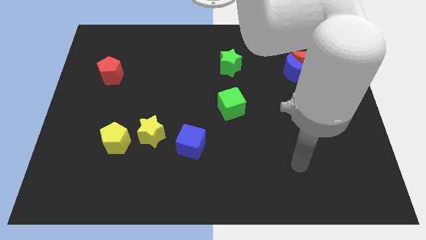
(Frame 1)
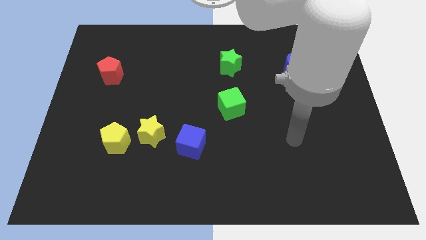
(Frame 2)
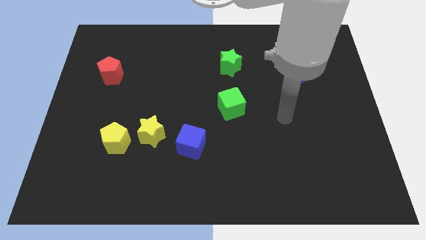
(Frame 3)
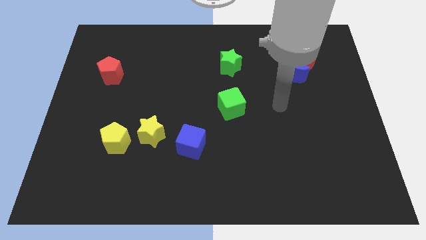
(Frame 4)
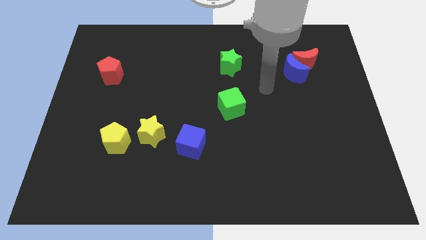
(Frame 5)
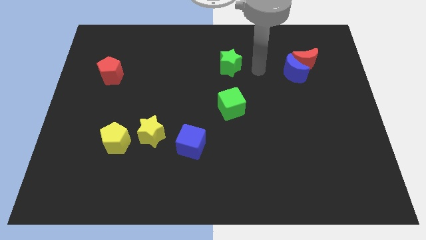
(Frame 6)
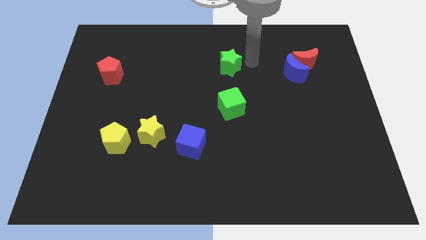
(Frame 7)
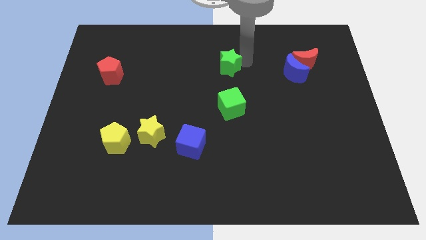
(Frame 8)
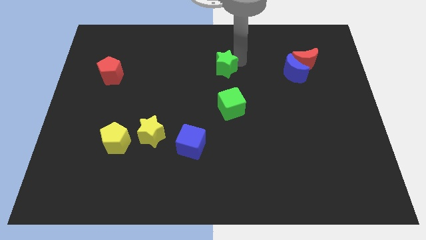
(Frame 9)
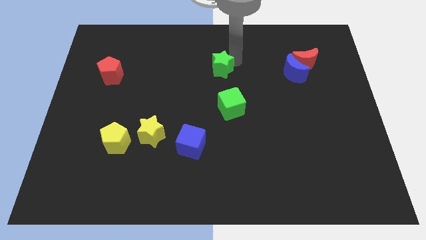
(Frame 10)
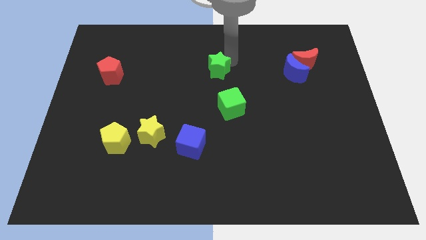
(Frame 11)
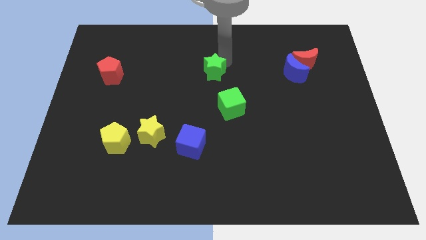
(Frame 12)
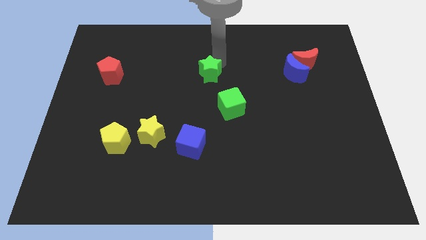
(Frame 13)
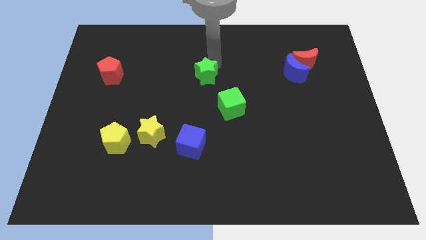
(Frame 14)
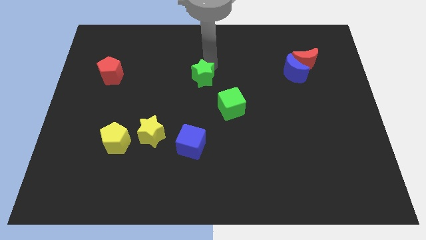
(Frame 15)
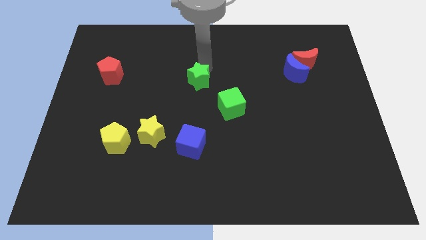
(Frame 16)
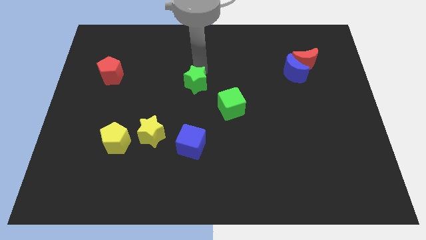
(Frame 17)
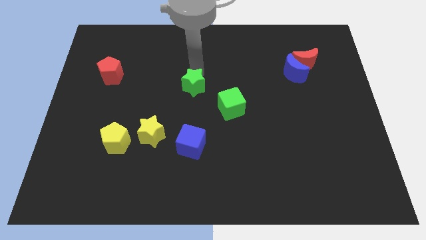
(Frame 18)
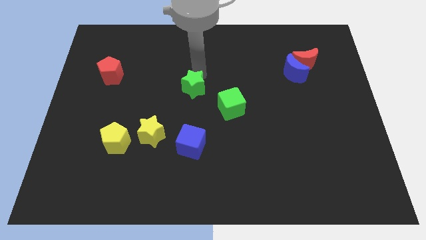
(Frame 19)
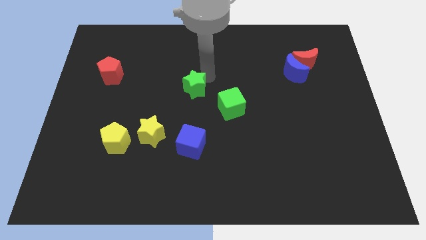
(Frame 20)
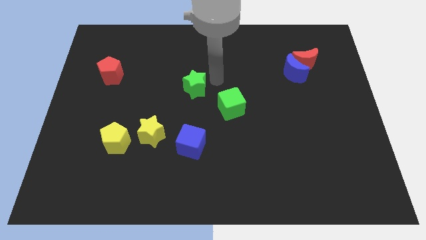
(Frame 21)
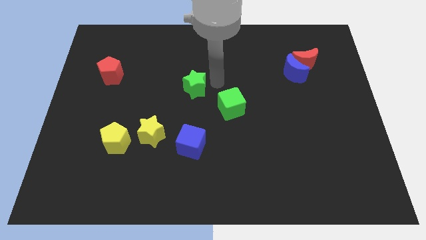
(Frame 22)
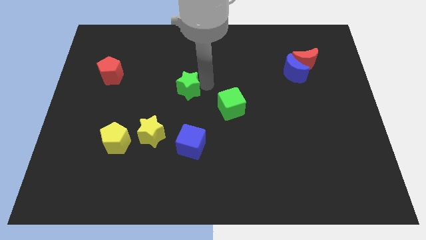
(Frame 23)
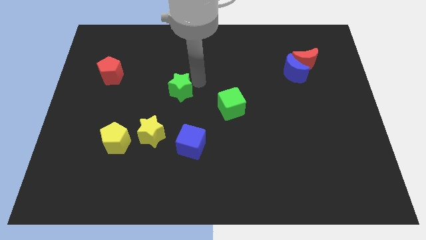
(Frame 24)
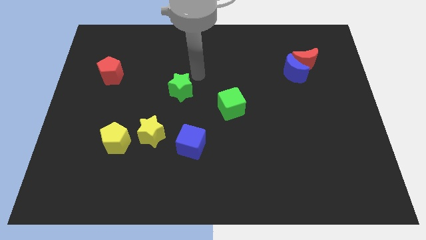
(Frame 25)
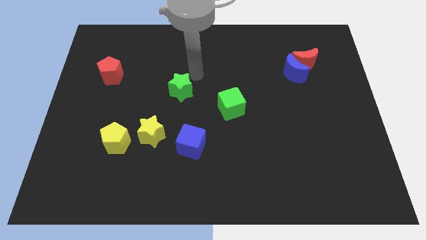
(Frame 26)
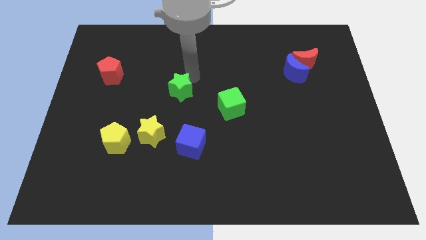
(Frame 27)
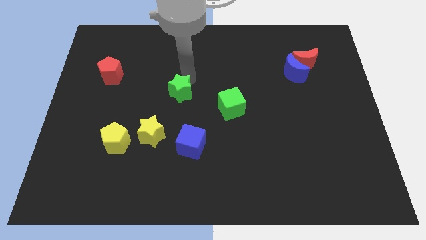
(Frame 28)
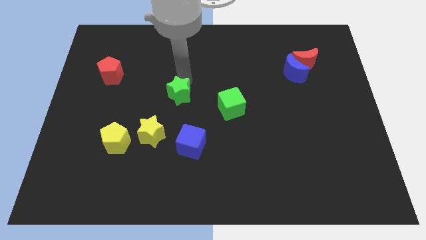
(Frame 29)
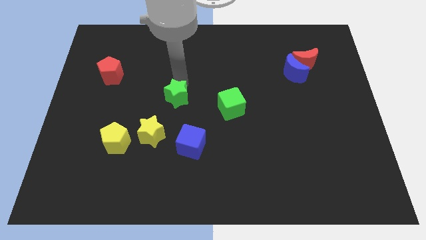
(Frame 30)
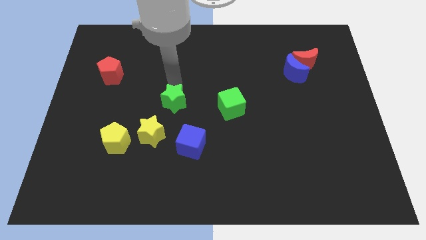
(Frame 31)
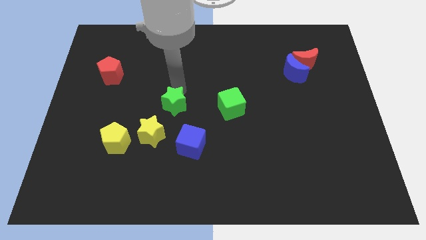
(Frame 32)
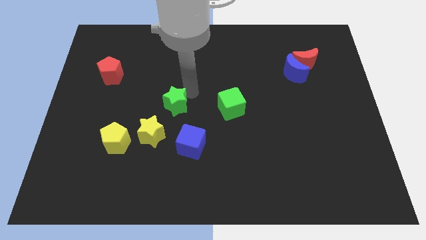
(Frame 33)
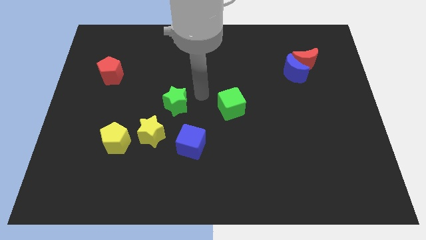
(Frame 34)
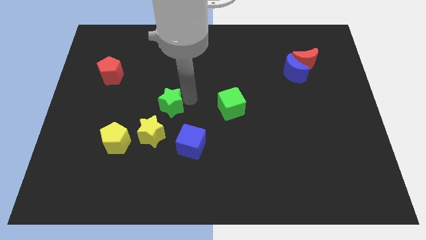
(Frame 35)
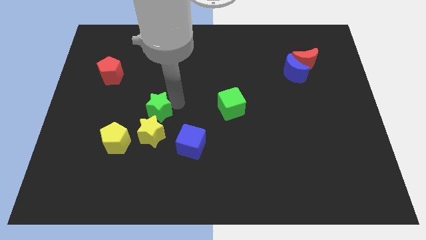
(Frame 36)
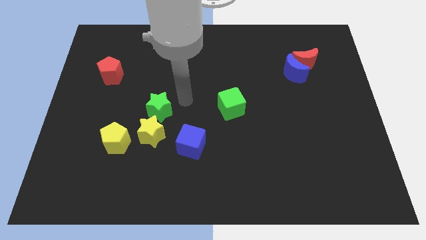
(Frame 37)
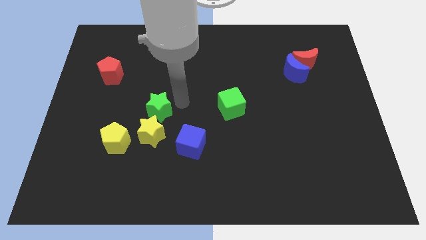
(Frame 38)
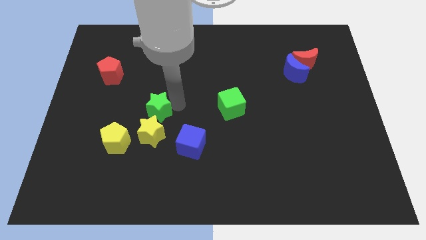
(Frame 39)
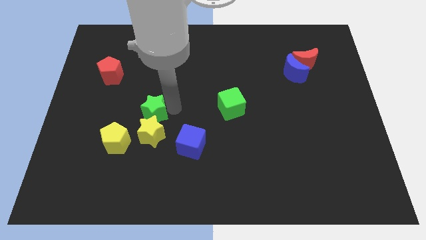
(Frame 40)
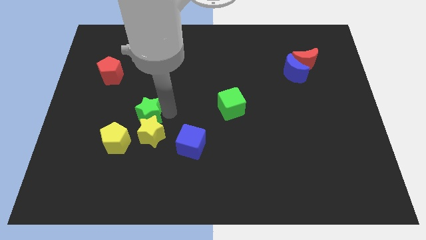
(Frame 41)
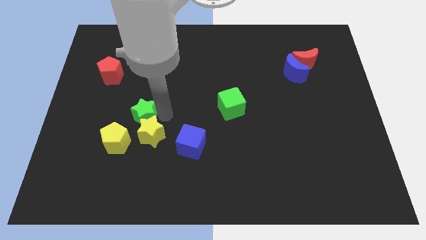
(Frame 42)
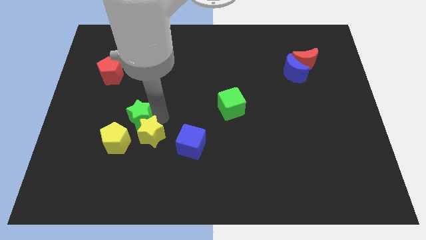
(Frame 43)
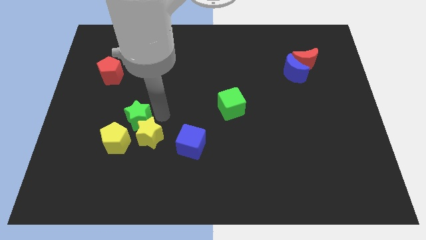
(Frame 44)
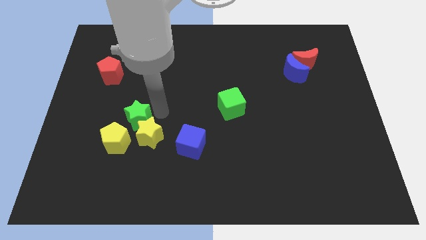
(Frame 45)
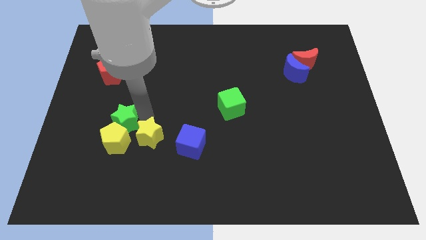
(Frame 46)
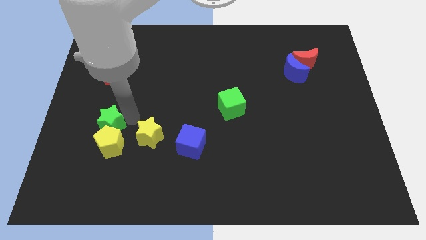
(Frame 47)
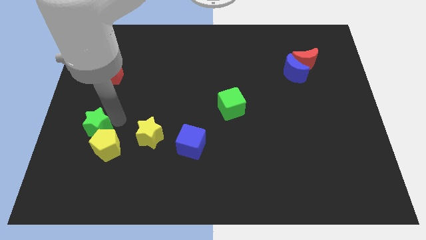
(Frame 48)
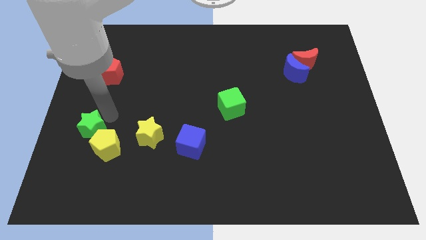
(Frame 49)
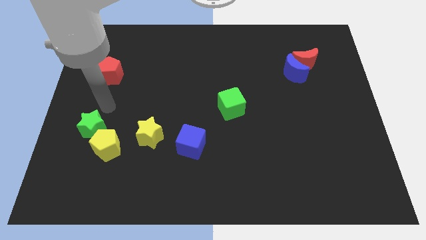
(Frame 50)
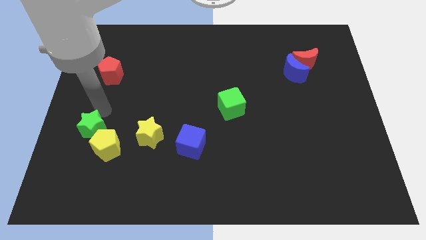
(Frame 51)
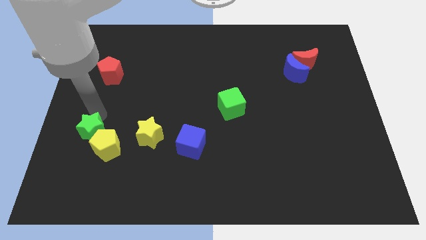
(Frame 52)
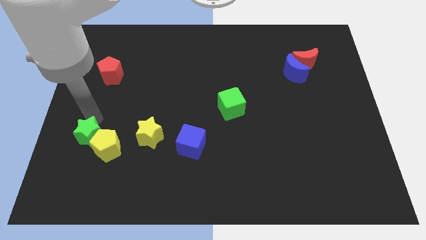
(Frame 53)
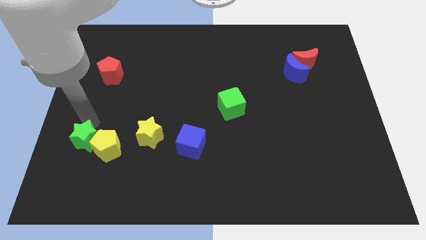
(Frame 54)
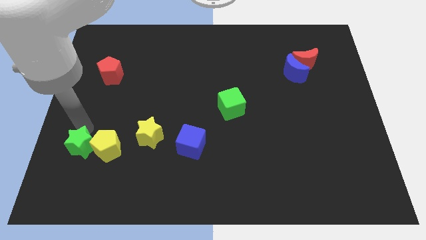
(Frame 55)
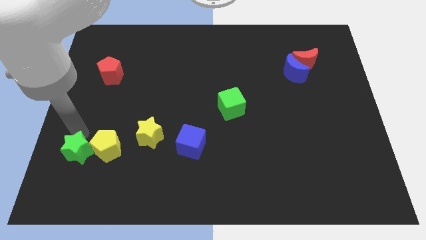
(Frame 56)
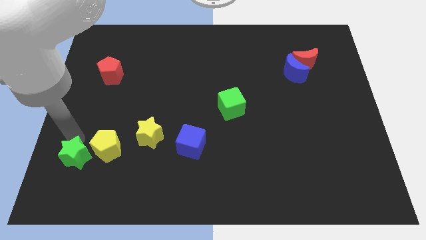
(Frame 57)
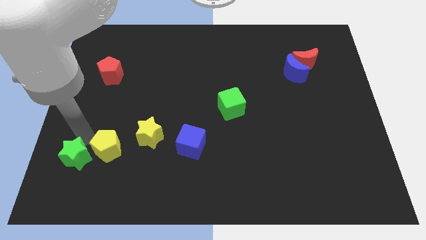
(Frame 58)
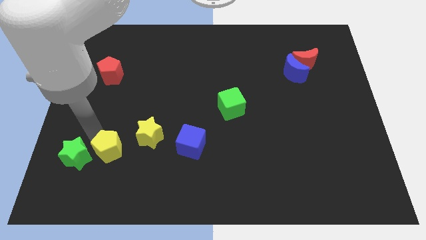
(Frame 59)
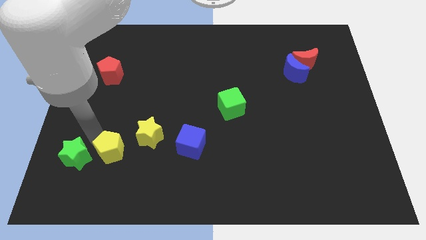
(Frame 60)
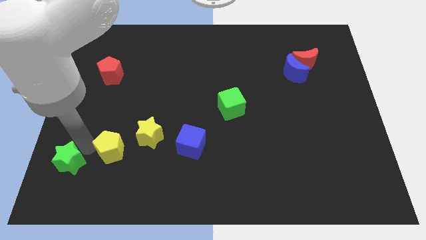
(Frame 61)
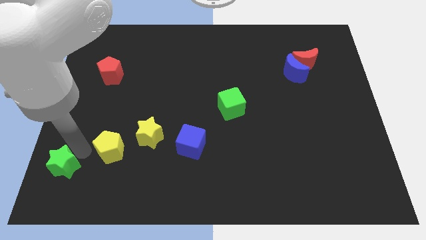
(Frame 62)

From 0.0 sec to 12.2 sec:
put the green star to the bottom left corner
